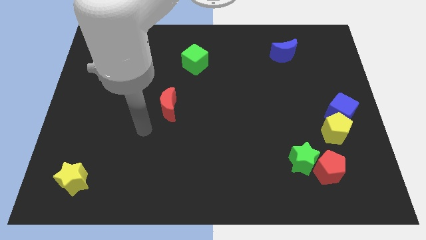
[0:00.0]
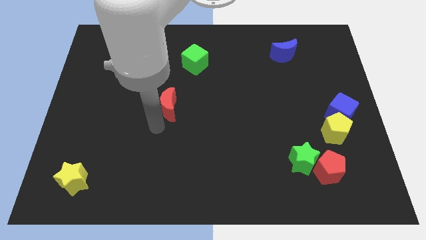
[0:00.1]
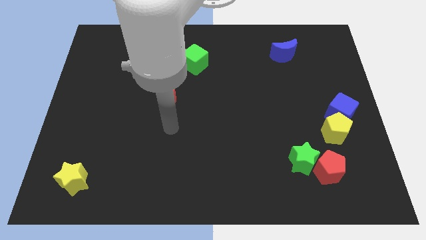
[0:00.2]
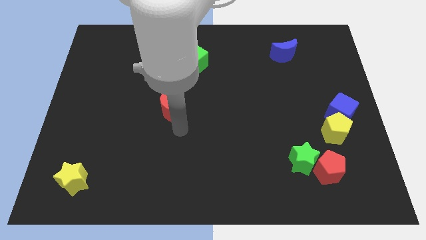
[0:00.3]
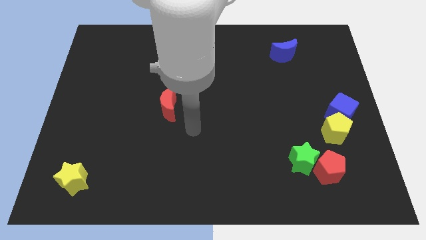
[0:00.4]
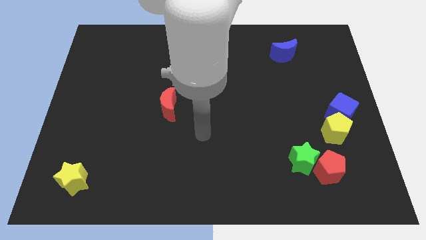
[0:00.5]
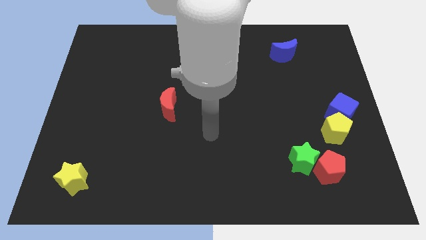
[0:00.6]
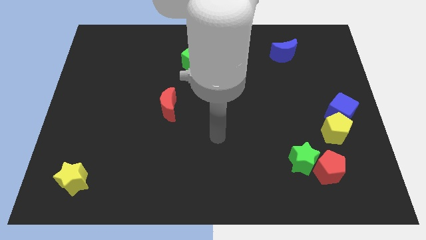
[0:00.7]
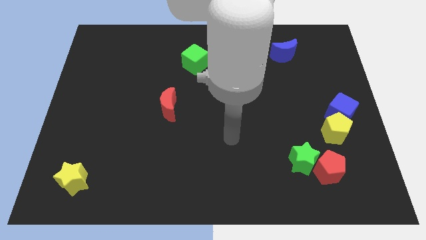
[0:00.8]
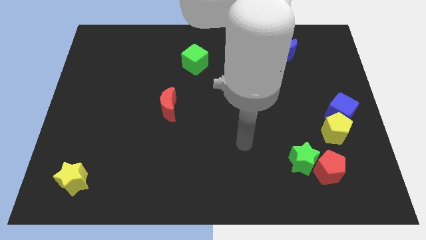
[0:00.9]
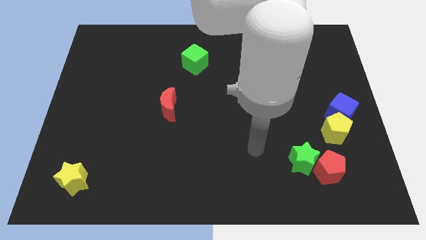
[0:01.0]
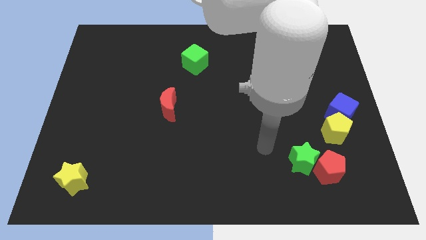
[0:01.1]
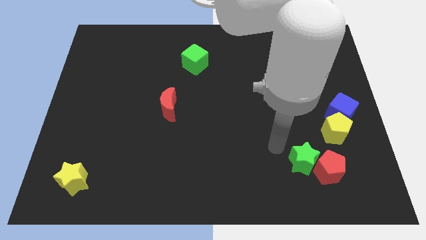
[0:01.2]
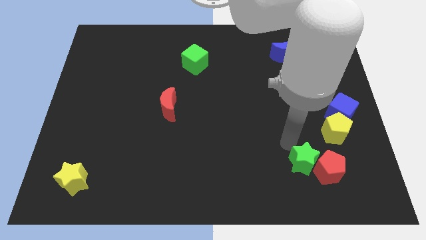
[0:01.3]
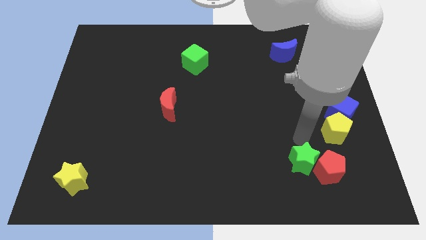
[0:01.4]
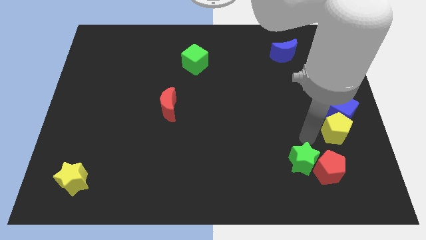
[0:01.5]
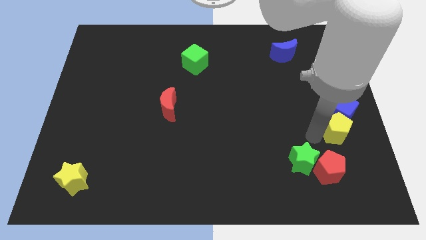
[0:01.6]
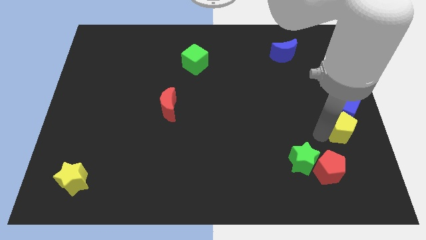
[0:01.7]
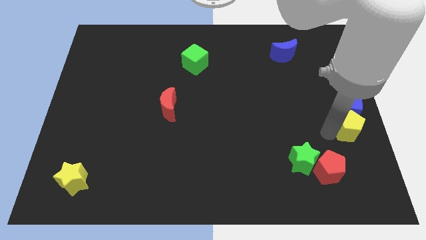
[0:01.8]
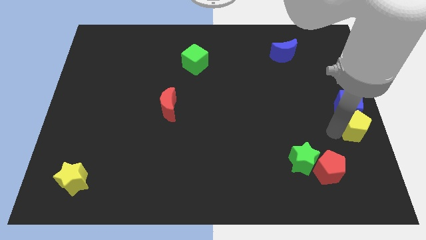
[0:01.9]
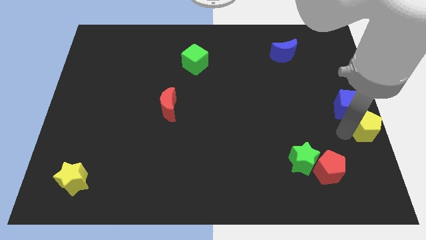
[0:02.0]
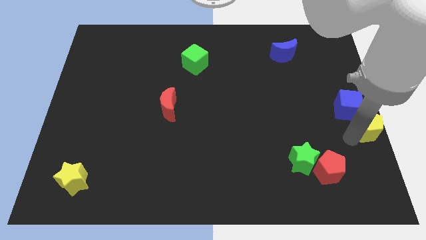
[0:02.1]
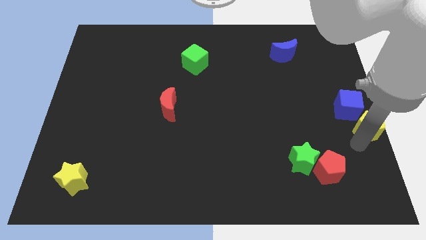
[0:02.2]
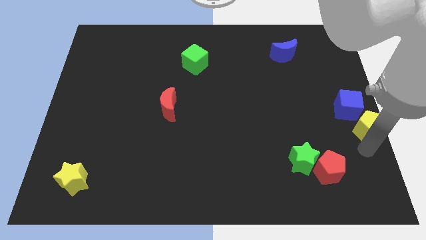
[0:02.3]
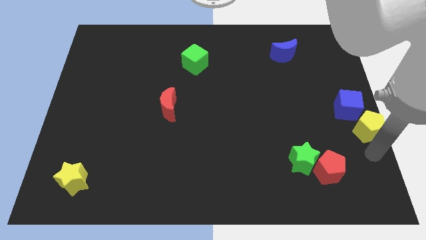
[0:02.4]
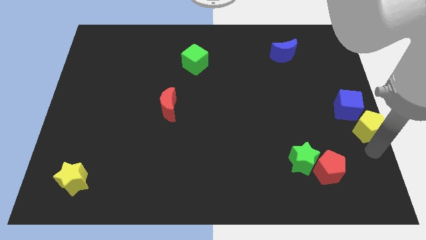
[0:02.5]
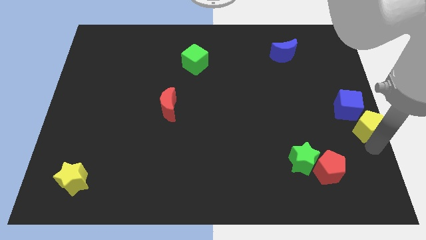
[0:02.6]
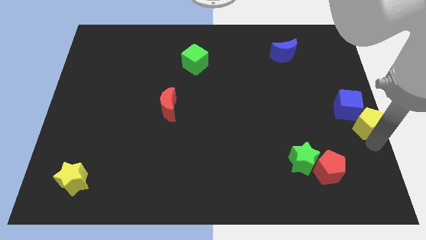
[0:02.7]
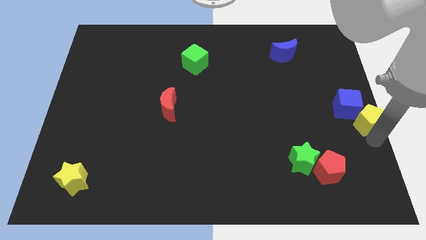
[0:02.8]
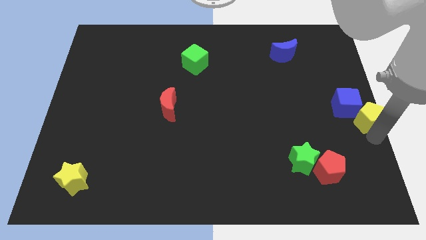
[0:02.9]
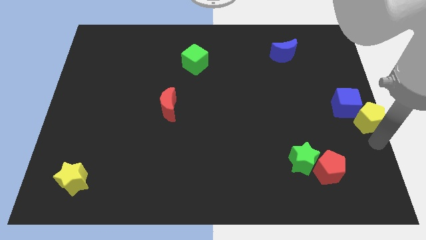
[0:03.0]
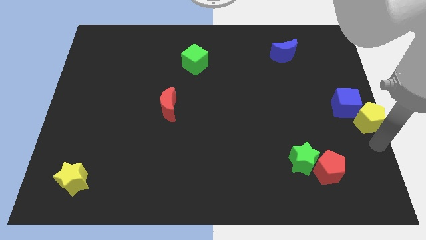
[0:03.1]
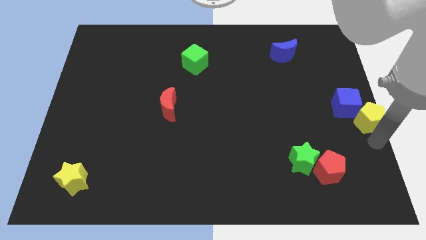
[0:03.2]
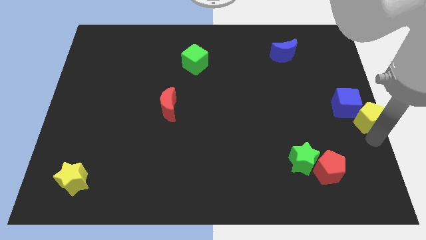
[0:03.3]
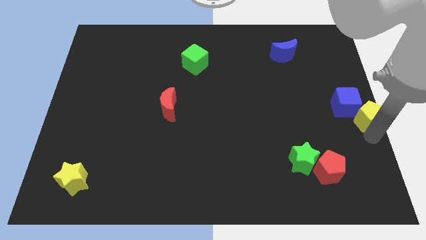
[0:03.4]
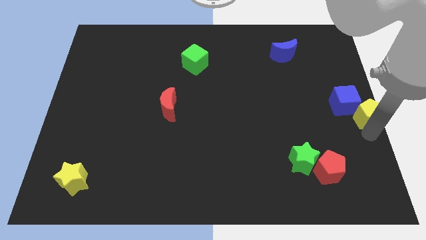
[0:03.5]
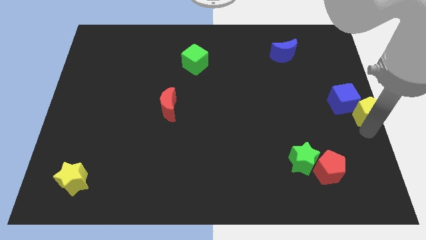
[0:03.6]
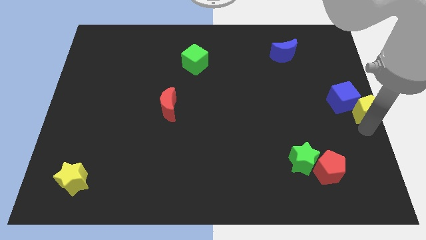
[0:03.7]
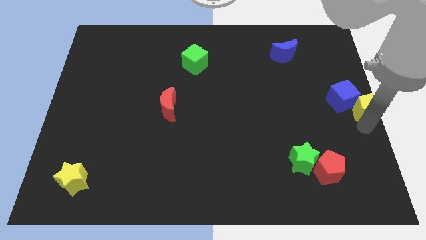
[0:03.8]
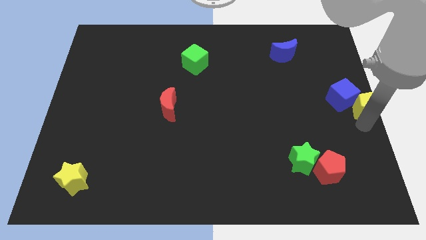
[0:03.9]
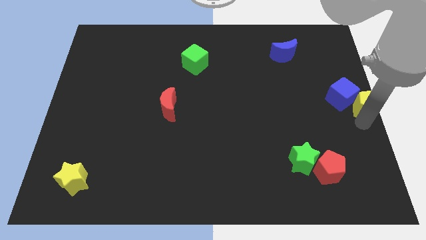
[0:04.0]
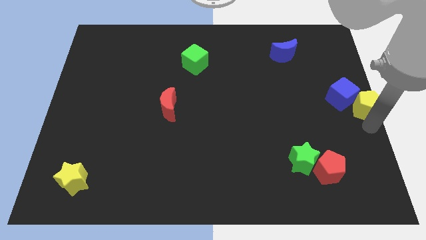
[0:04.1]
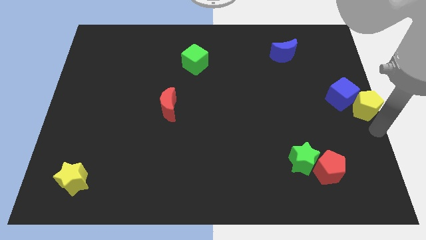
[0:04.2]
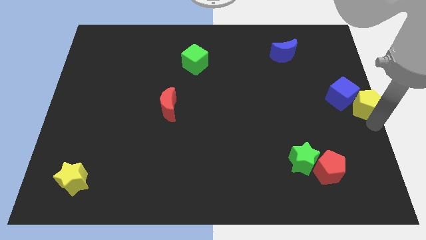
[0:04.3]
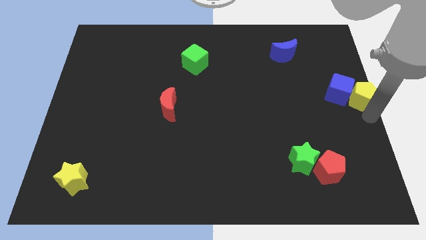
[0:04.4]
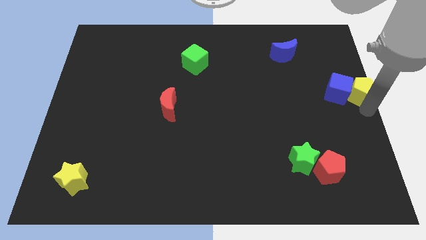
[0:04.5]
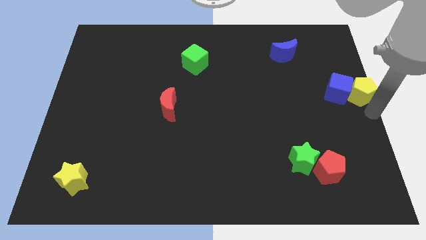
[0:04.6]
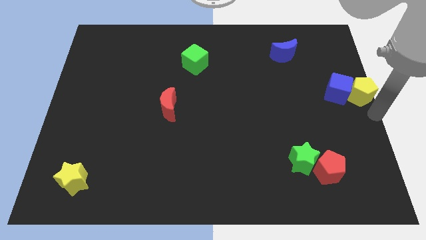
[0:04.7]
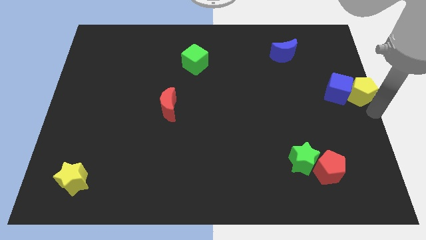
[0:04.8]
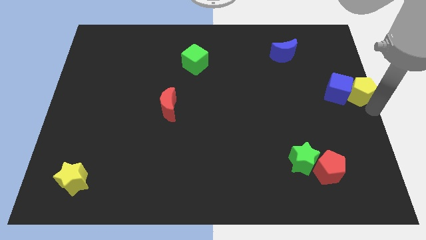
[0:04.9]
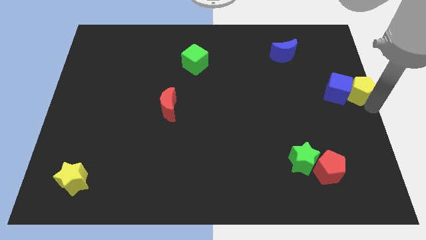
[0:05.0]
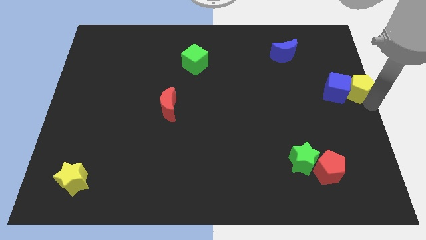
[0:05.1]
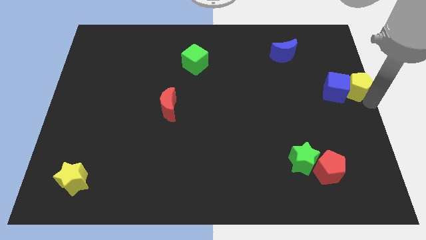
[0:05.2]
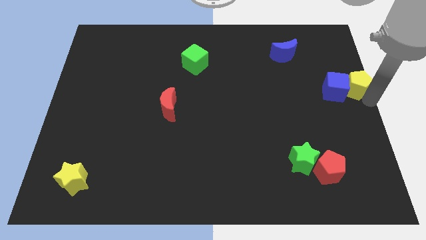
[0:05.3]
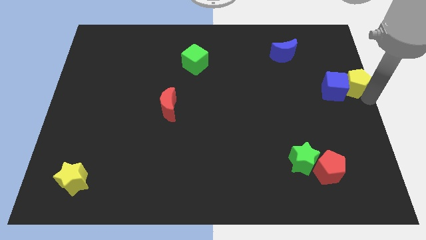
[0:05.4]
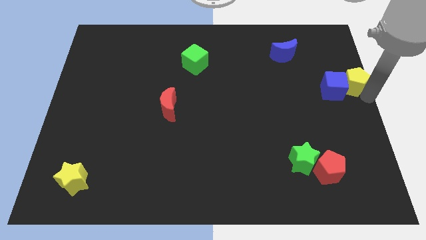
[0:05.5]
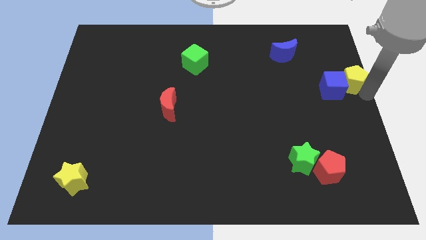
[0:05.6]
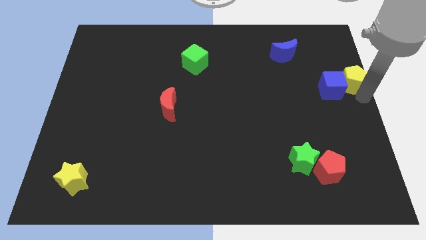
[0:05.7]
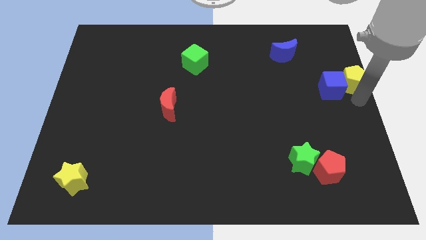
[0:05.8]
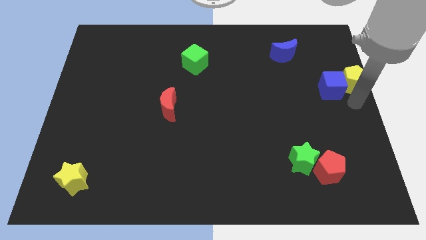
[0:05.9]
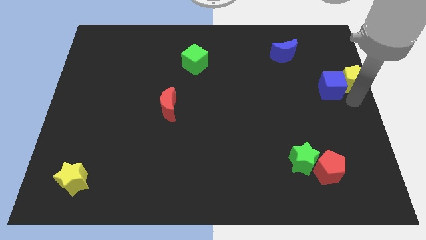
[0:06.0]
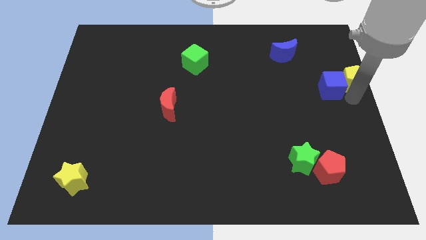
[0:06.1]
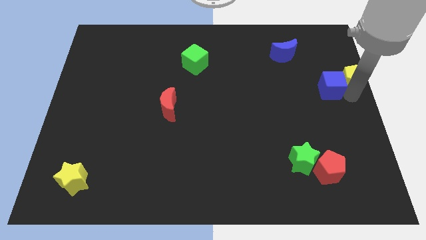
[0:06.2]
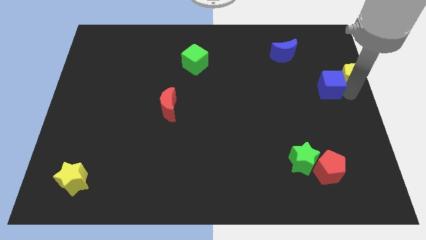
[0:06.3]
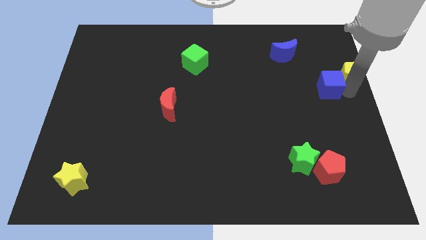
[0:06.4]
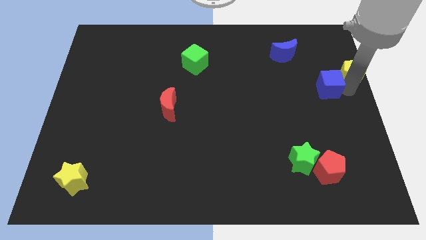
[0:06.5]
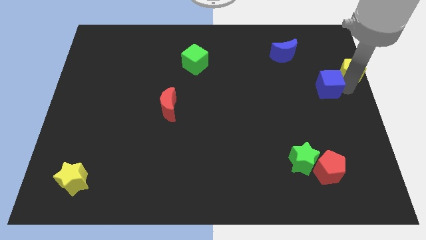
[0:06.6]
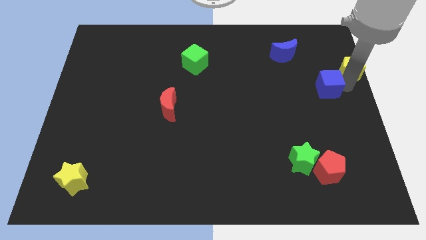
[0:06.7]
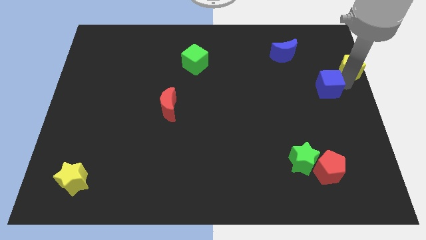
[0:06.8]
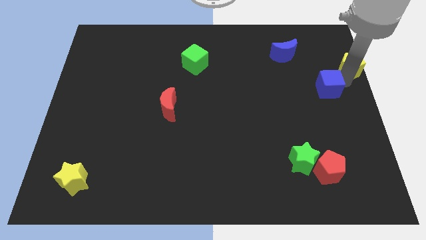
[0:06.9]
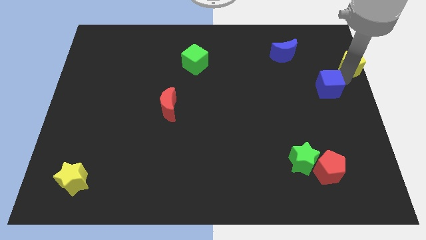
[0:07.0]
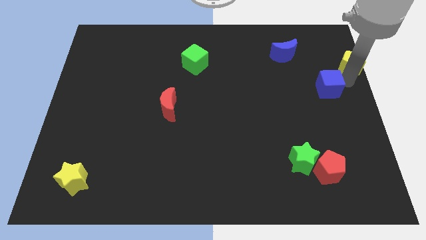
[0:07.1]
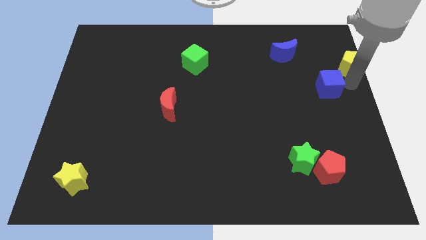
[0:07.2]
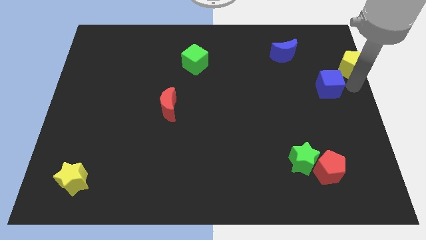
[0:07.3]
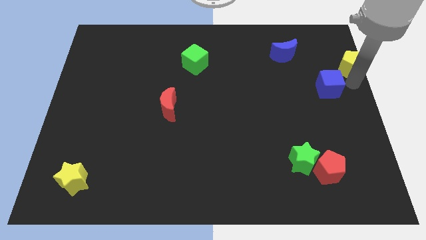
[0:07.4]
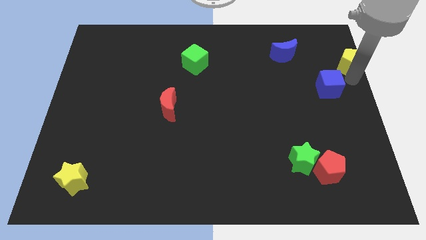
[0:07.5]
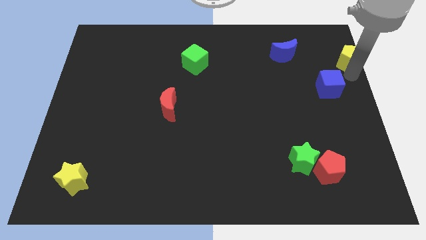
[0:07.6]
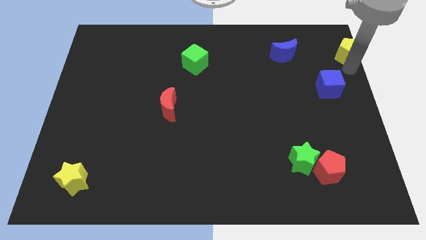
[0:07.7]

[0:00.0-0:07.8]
slide the yellow pentagon to the upper right corner
